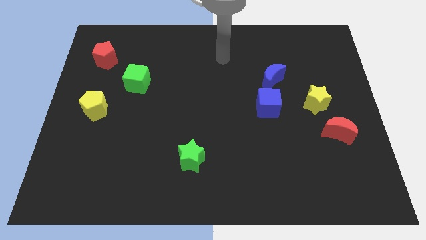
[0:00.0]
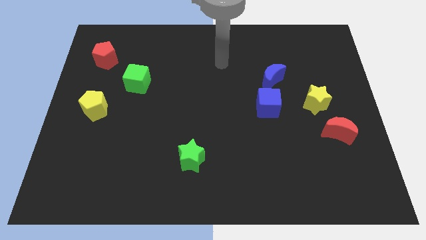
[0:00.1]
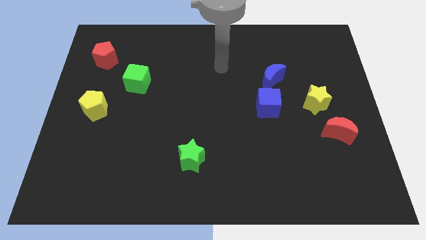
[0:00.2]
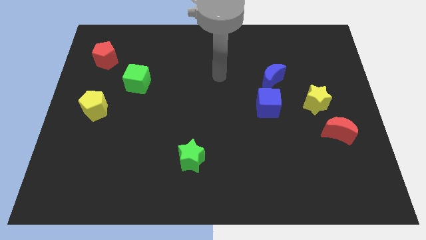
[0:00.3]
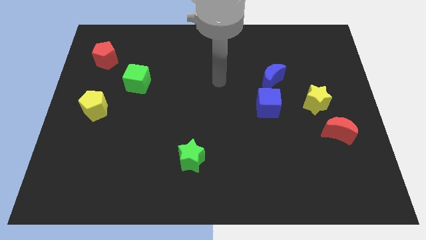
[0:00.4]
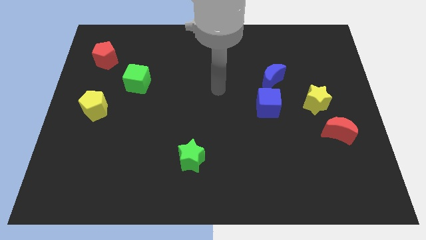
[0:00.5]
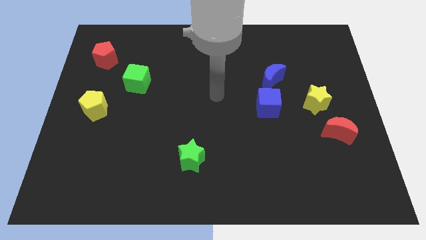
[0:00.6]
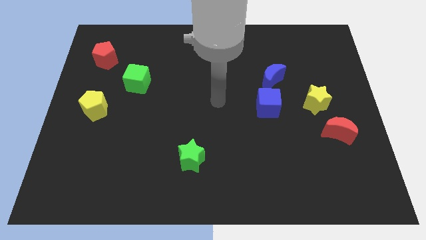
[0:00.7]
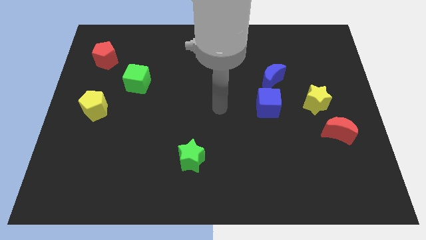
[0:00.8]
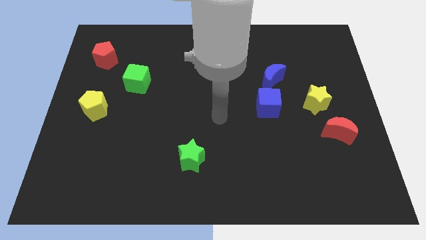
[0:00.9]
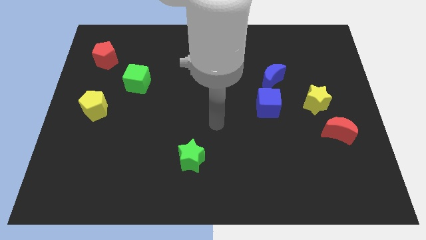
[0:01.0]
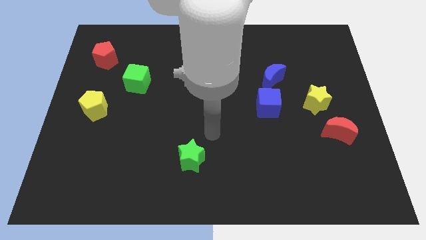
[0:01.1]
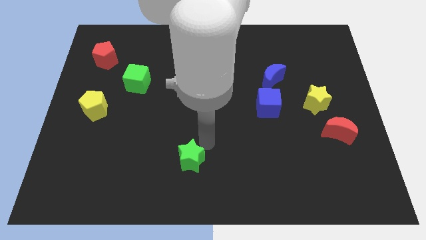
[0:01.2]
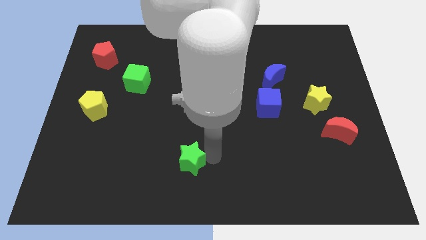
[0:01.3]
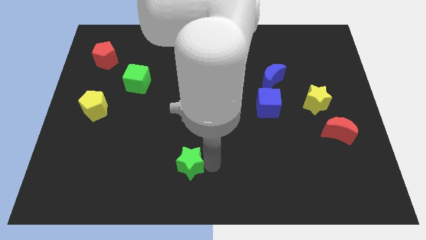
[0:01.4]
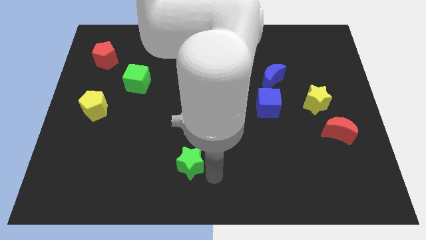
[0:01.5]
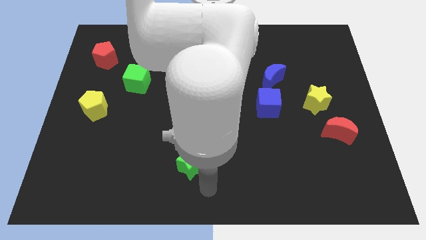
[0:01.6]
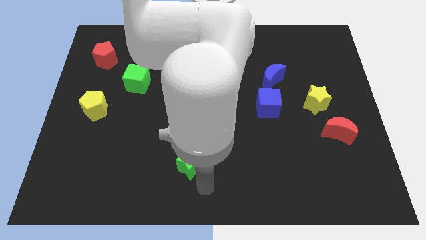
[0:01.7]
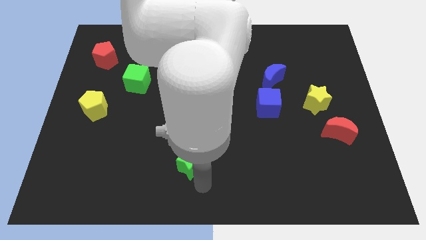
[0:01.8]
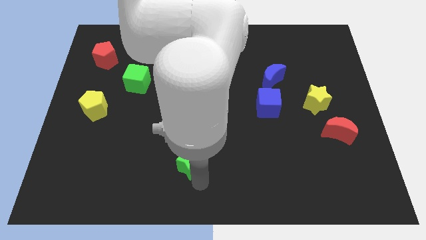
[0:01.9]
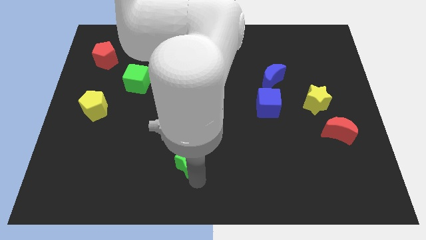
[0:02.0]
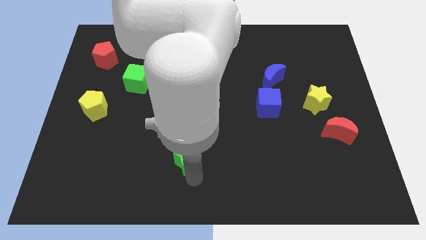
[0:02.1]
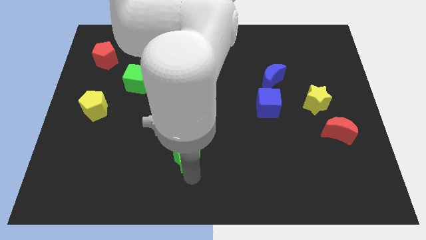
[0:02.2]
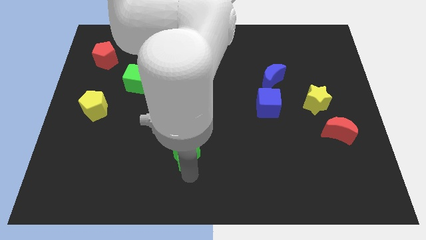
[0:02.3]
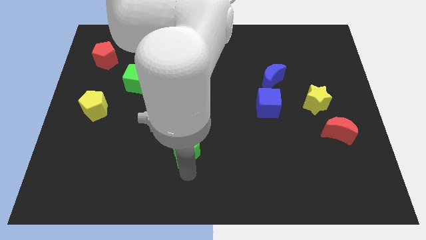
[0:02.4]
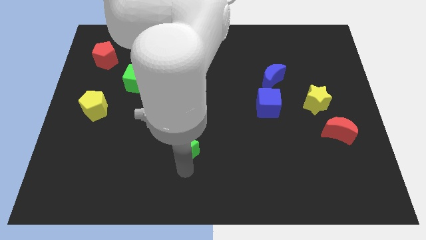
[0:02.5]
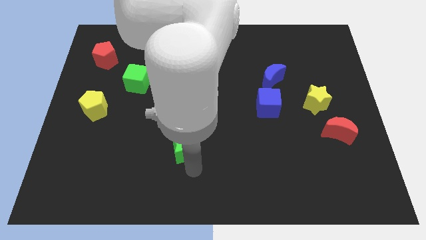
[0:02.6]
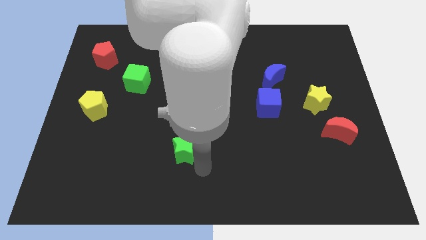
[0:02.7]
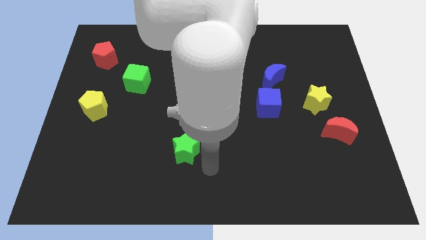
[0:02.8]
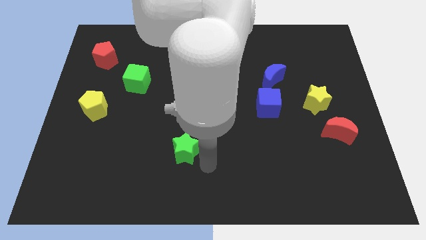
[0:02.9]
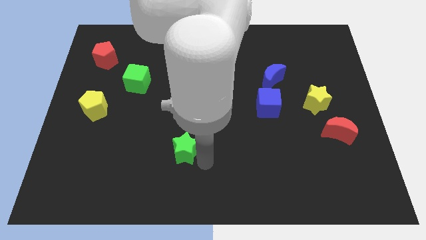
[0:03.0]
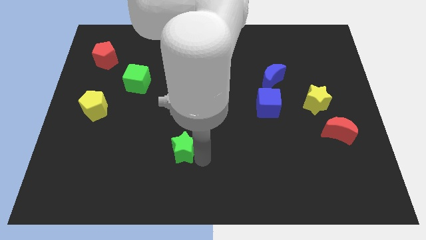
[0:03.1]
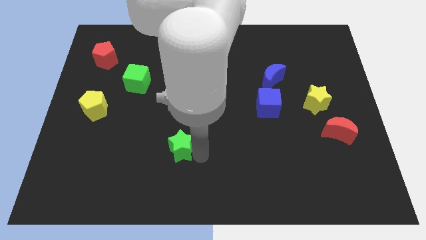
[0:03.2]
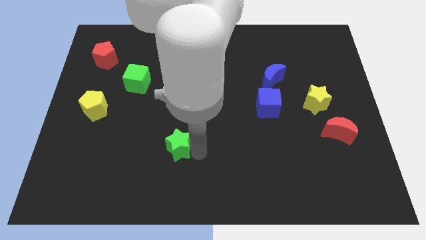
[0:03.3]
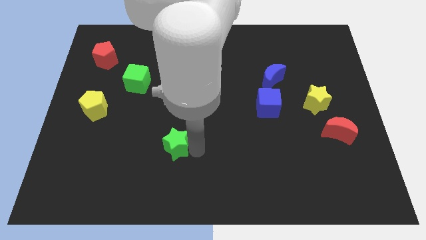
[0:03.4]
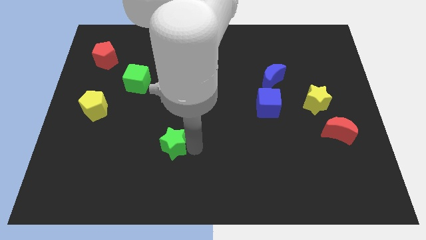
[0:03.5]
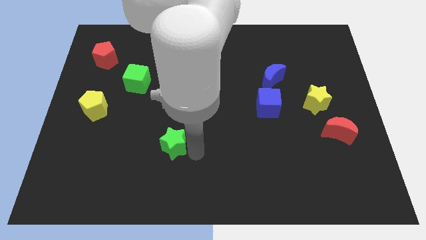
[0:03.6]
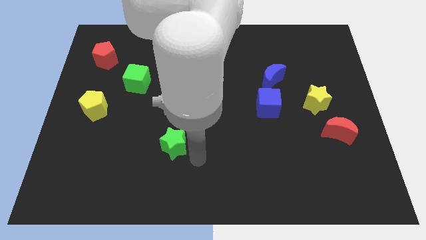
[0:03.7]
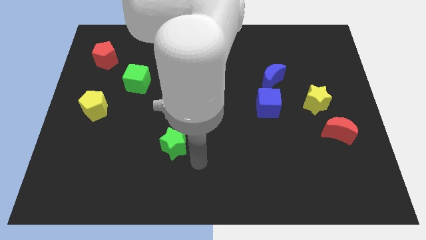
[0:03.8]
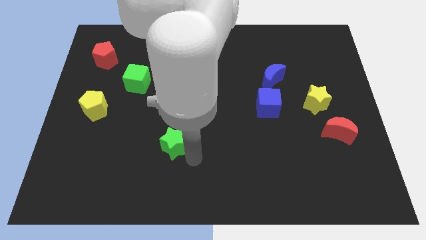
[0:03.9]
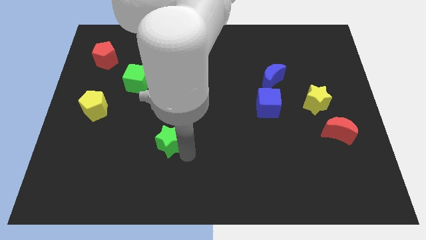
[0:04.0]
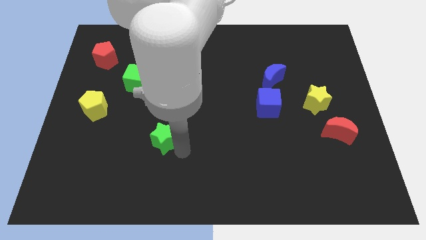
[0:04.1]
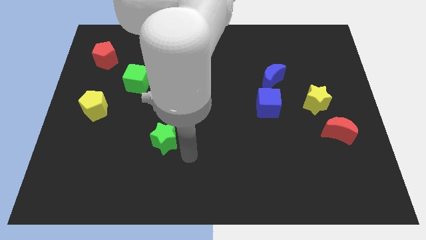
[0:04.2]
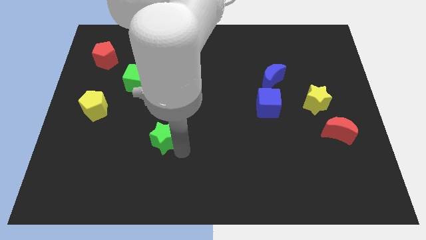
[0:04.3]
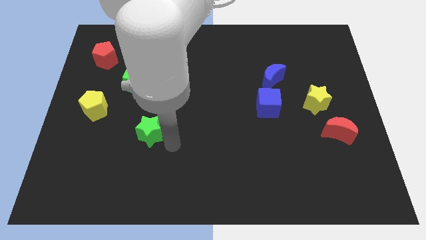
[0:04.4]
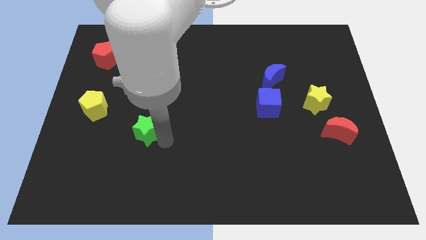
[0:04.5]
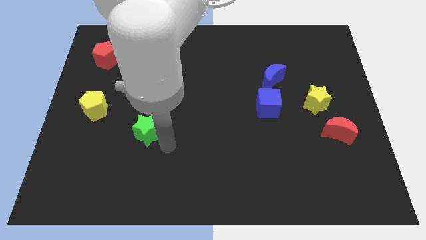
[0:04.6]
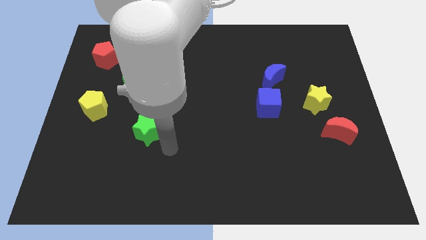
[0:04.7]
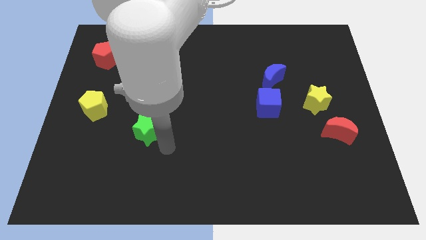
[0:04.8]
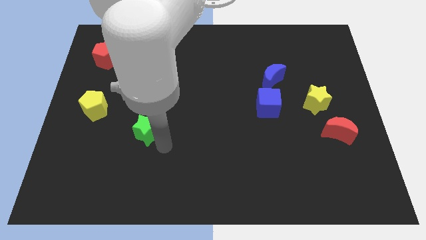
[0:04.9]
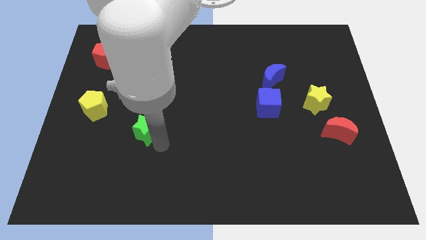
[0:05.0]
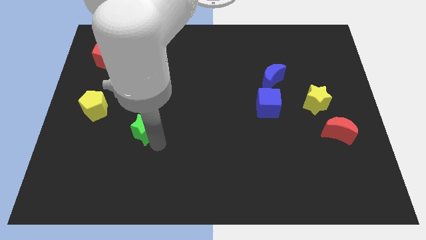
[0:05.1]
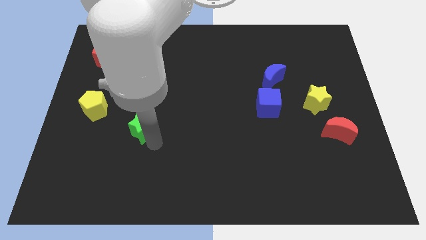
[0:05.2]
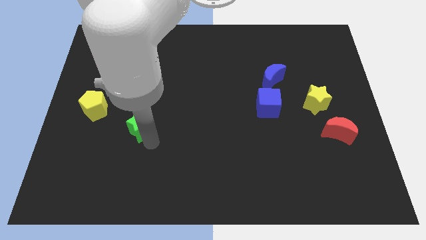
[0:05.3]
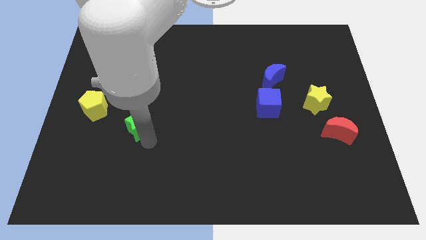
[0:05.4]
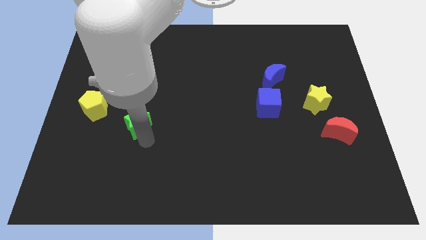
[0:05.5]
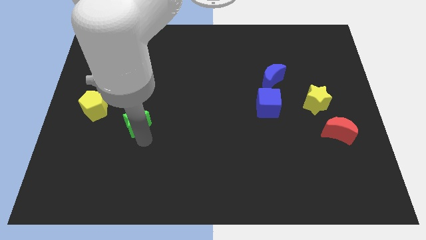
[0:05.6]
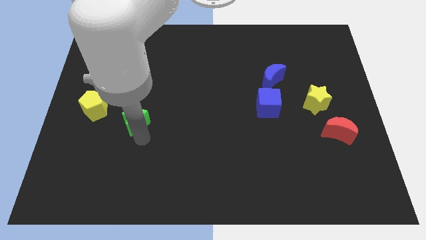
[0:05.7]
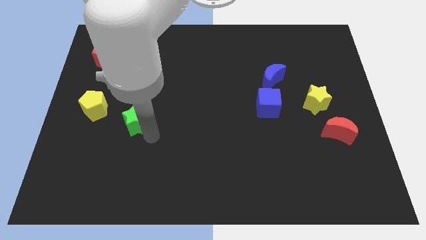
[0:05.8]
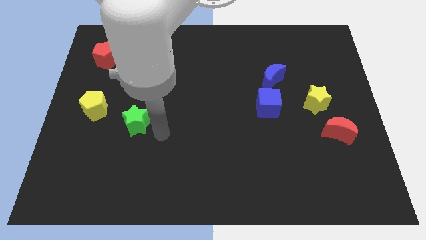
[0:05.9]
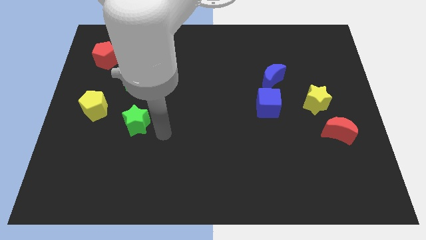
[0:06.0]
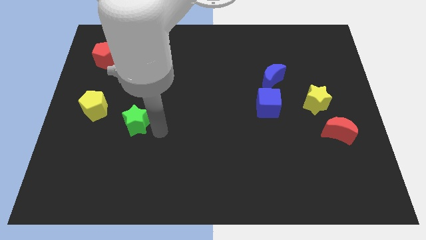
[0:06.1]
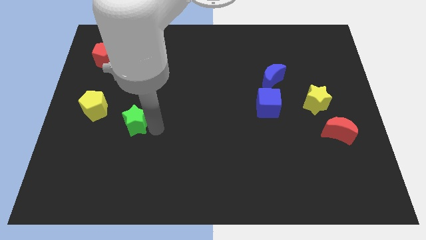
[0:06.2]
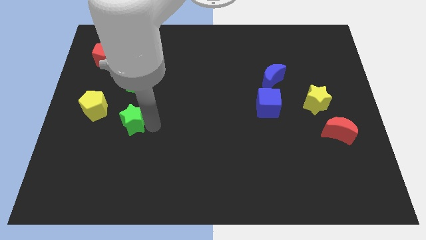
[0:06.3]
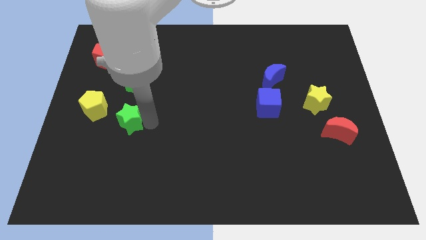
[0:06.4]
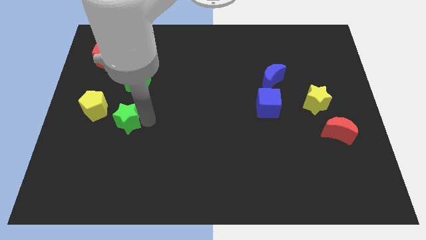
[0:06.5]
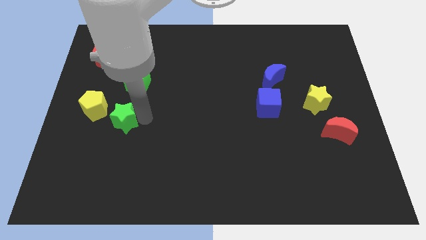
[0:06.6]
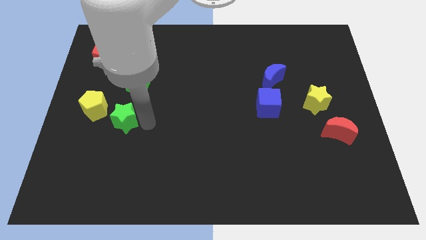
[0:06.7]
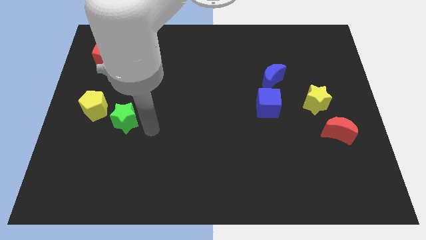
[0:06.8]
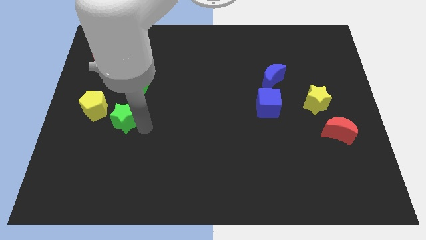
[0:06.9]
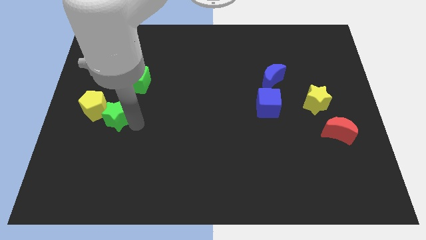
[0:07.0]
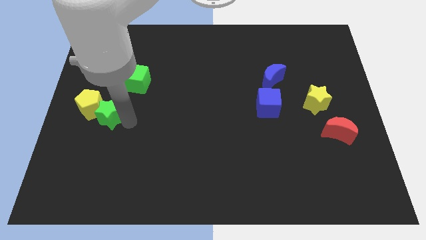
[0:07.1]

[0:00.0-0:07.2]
slide the green star close to the yellow pentagon
